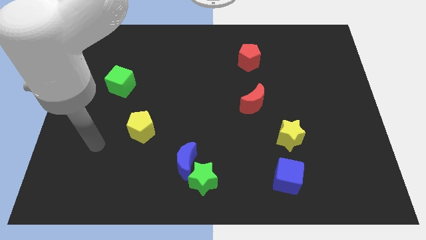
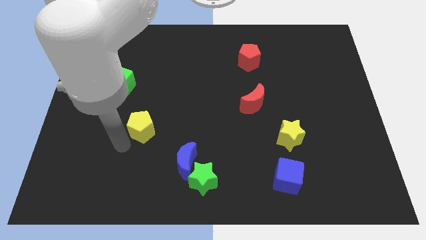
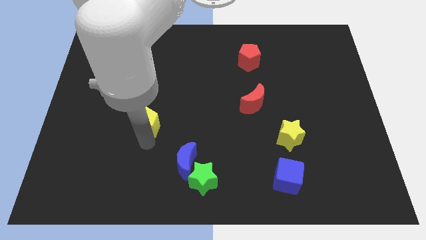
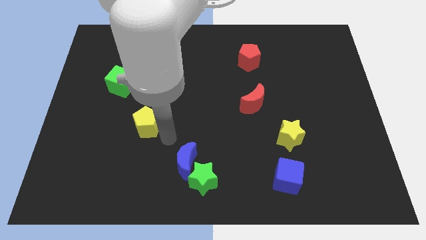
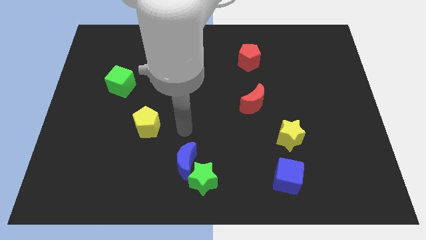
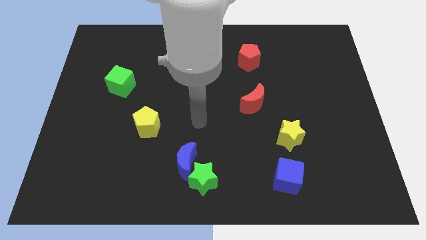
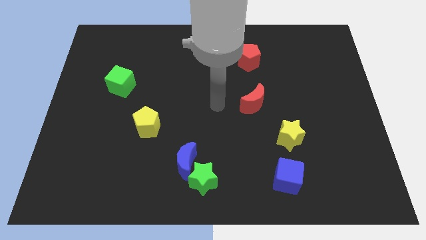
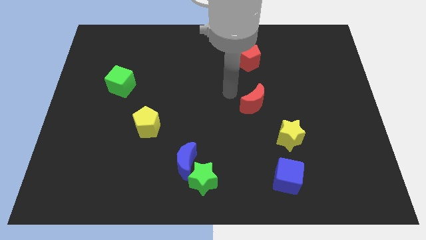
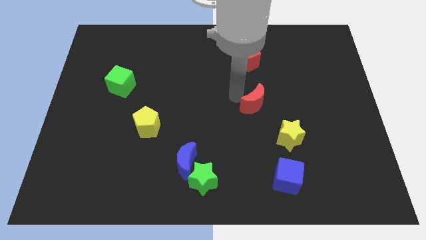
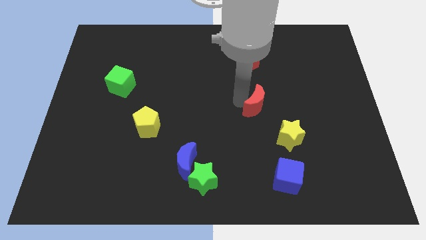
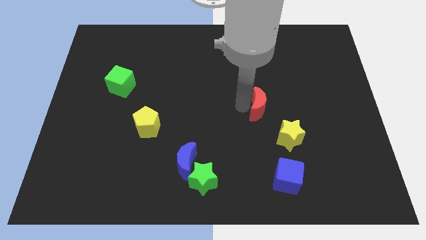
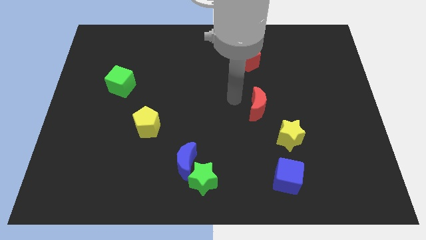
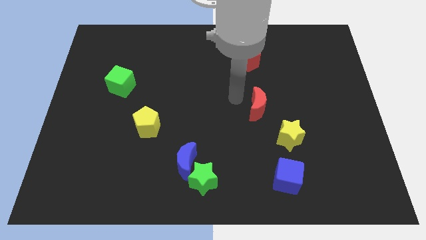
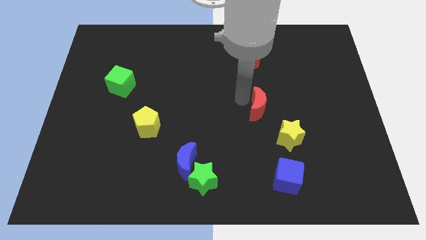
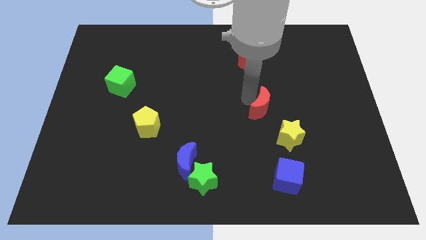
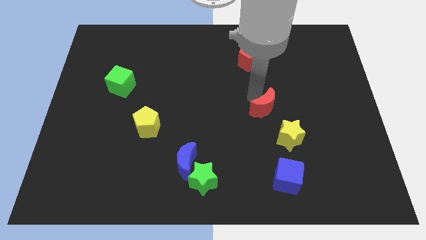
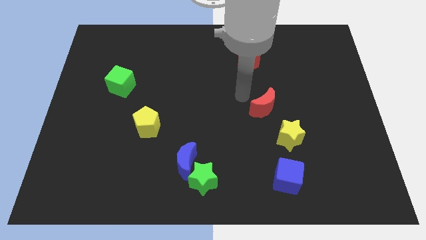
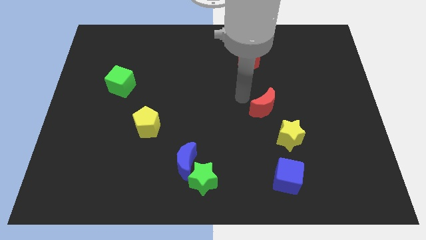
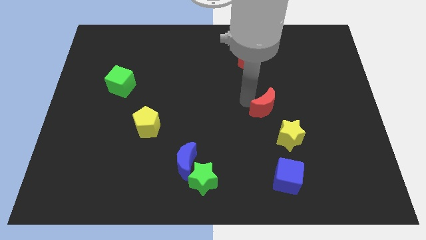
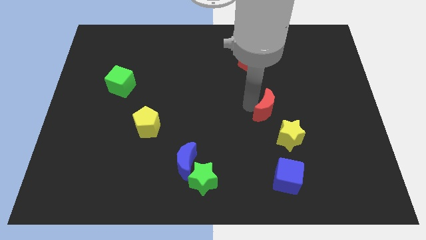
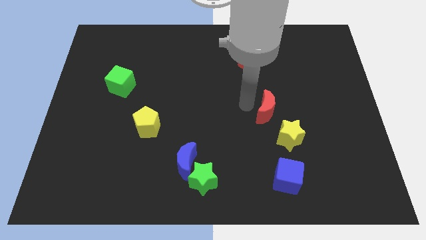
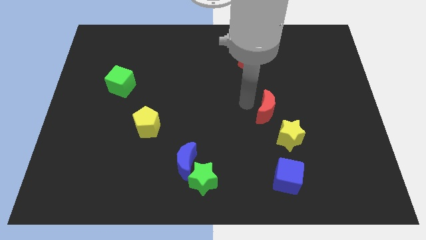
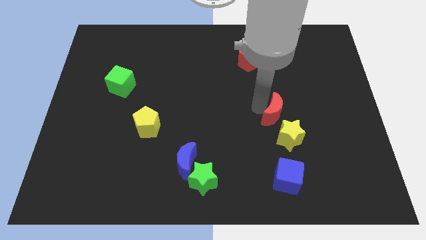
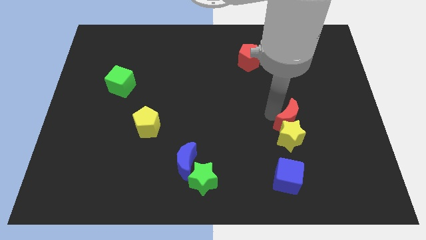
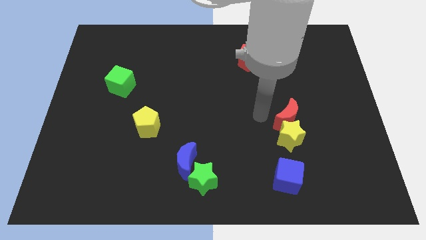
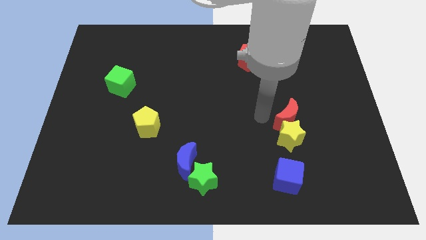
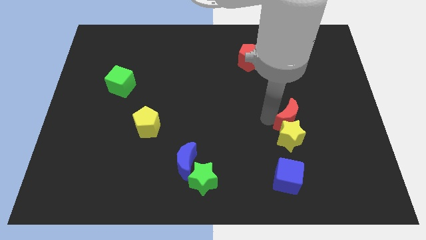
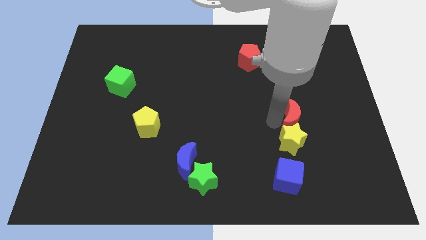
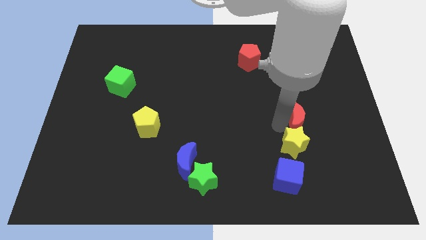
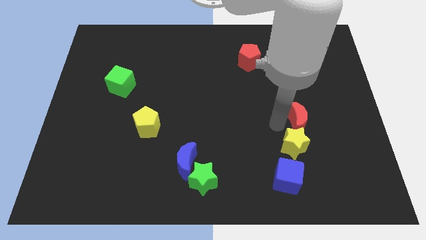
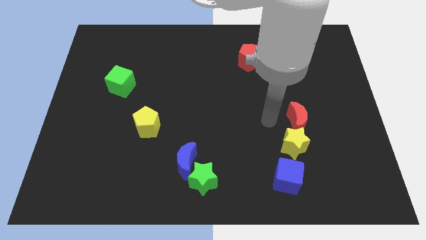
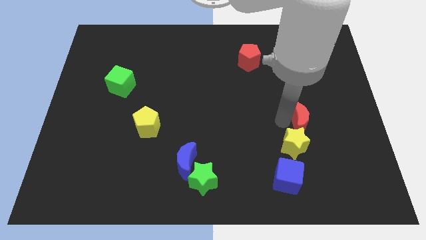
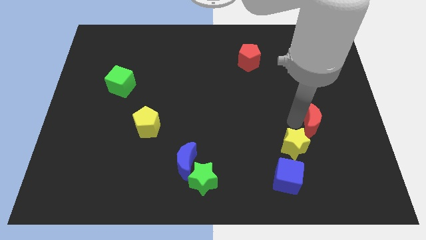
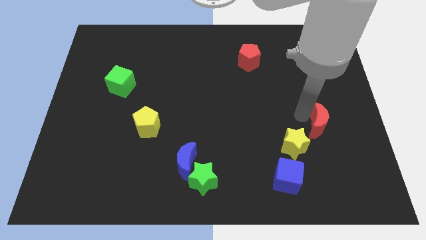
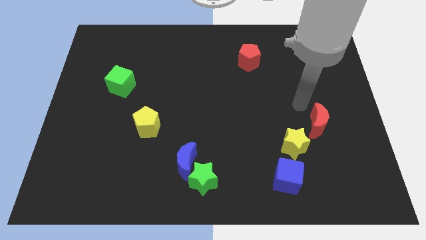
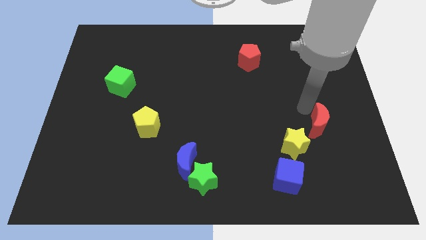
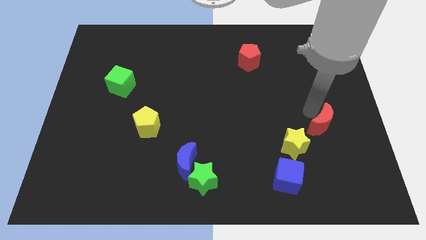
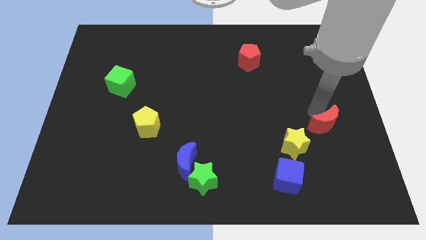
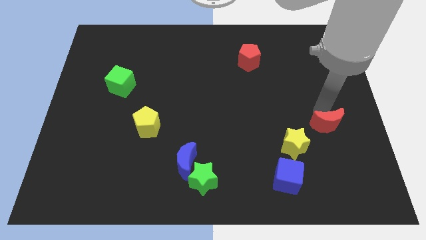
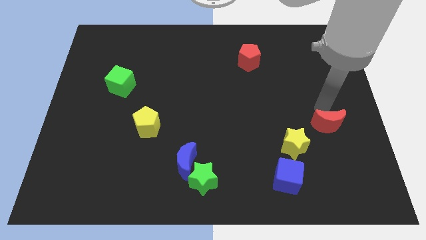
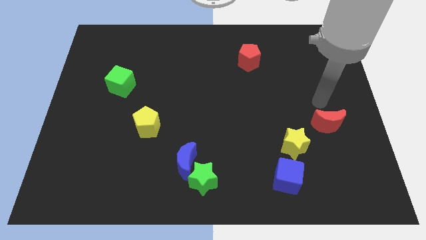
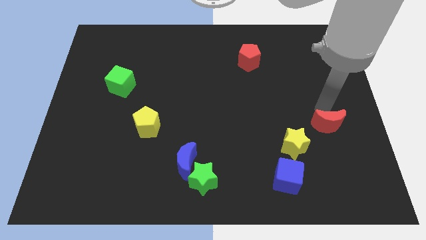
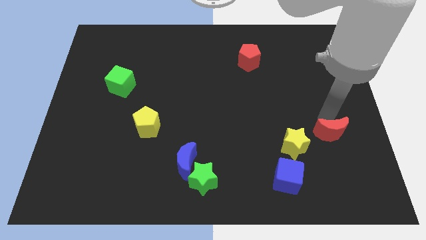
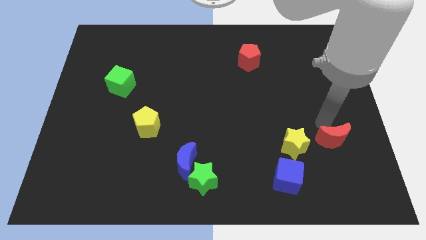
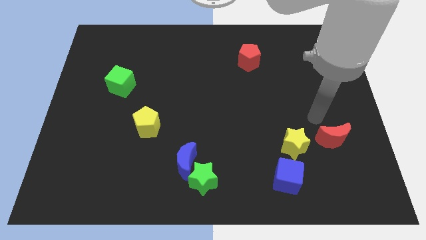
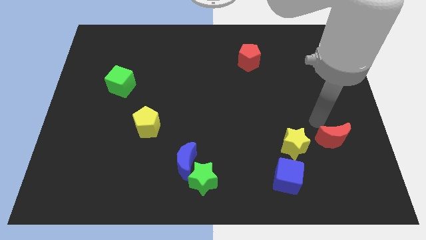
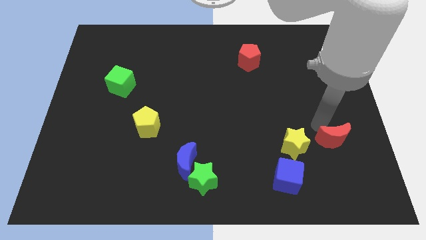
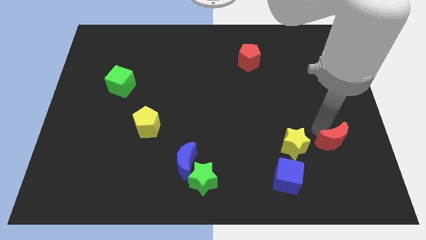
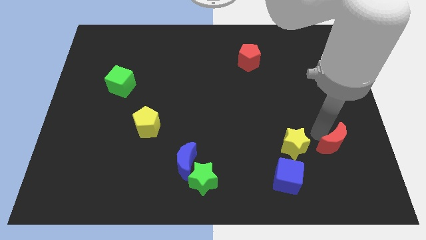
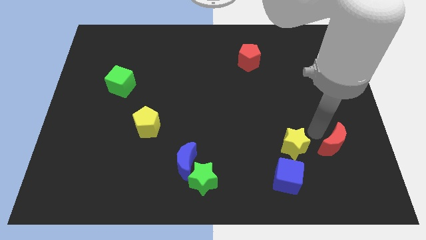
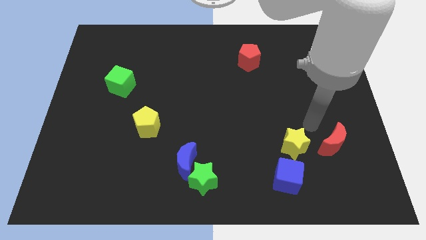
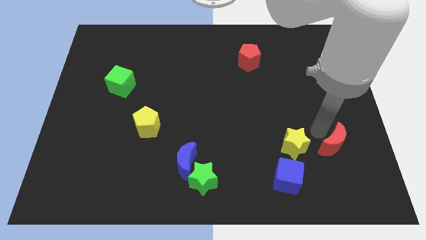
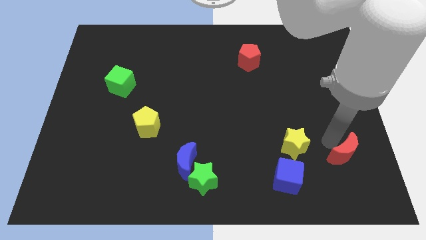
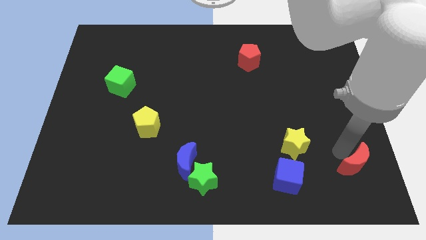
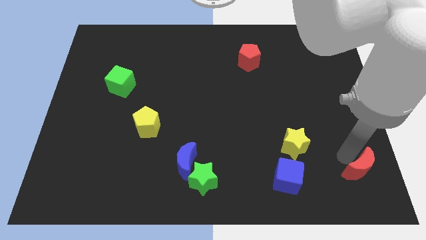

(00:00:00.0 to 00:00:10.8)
push the red moon to the bottom right of the board
